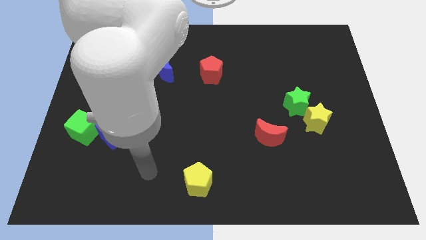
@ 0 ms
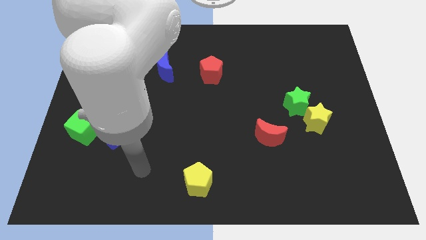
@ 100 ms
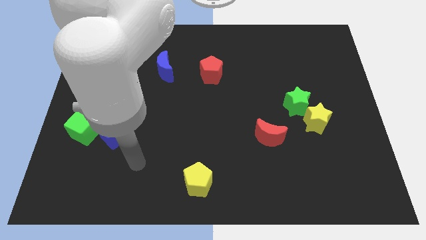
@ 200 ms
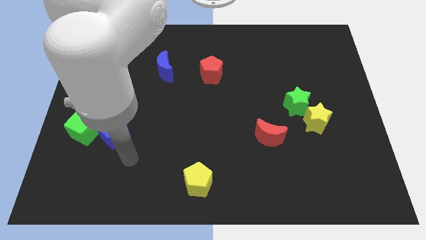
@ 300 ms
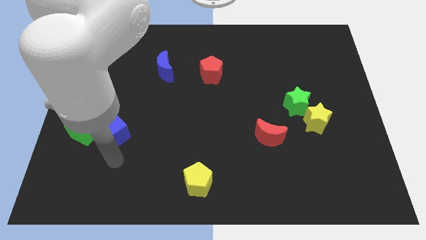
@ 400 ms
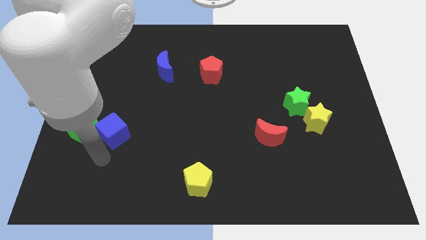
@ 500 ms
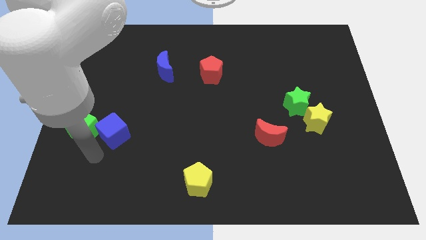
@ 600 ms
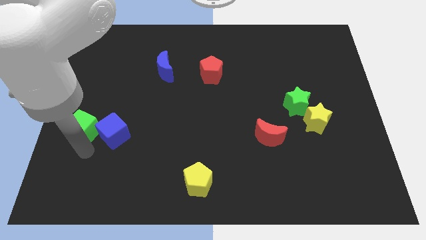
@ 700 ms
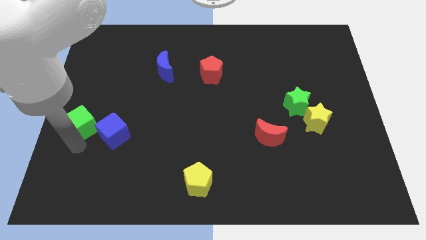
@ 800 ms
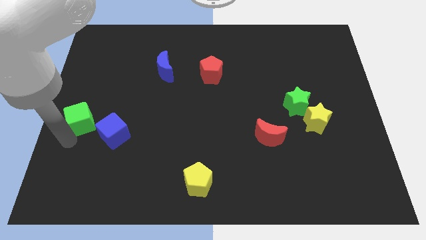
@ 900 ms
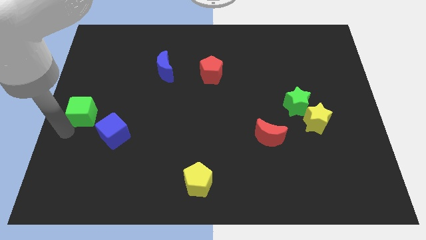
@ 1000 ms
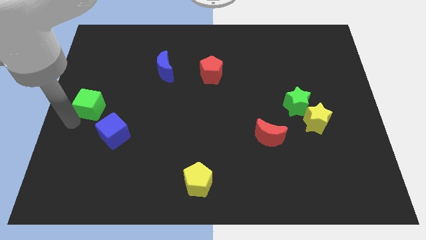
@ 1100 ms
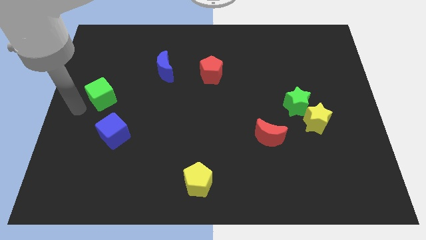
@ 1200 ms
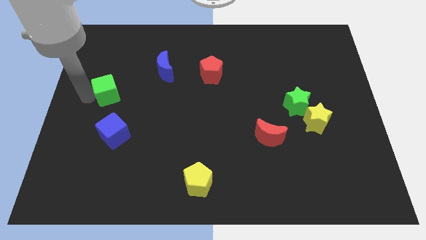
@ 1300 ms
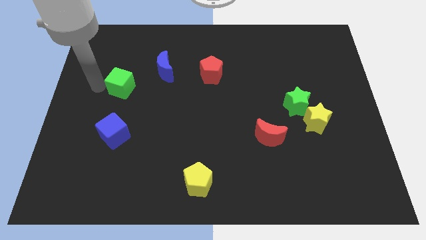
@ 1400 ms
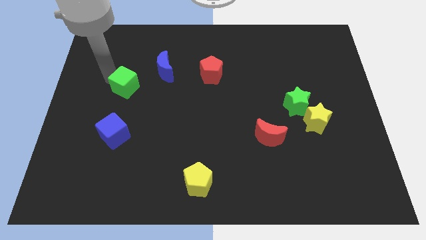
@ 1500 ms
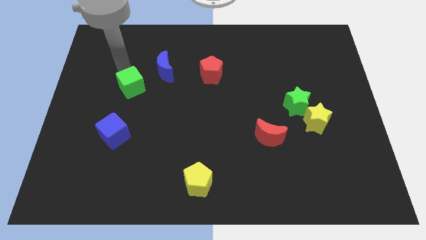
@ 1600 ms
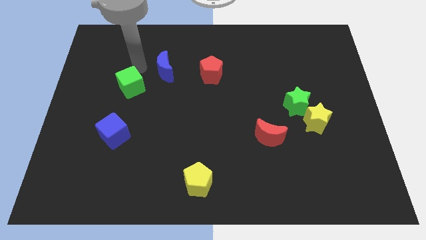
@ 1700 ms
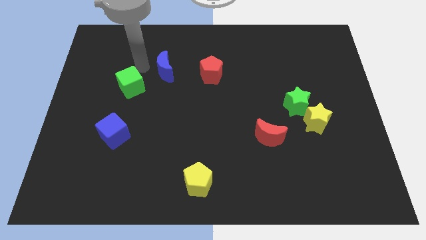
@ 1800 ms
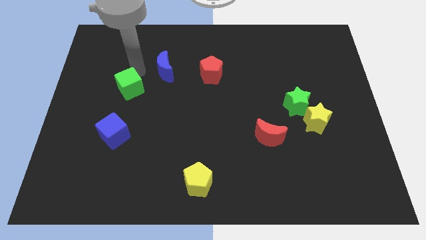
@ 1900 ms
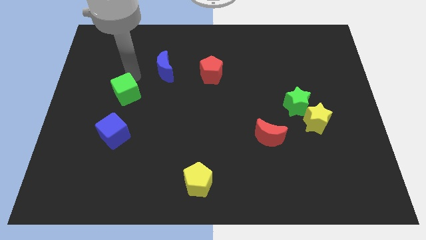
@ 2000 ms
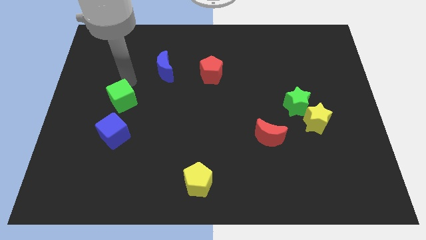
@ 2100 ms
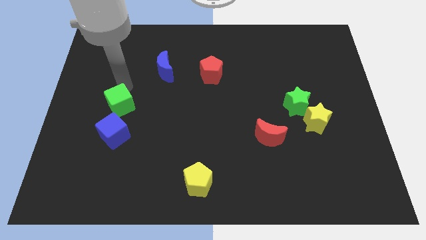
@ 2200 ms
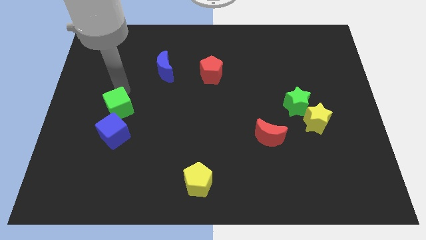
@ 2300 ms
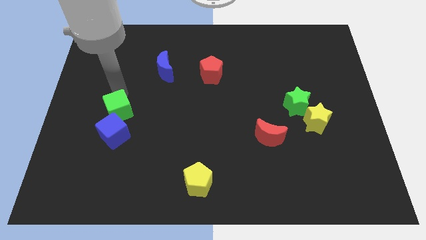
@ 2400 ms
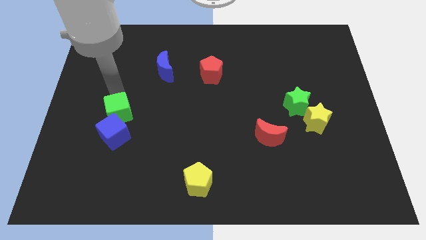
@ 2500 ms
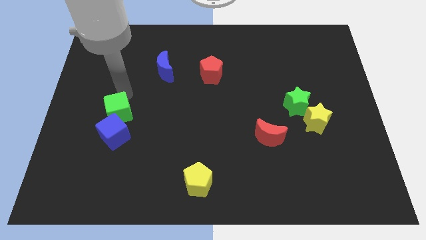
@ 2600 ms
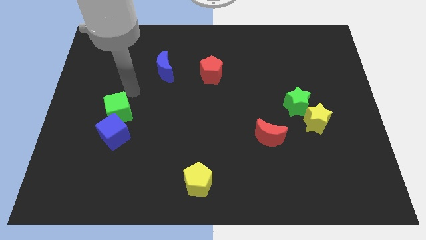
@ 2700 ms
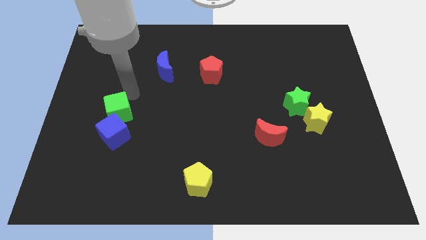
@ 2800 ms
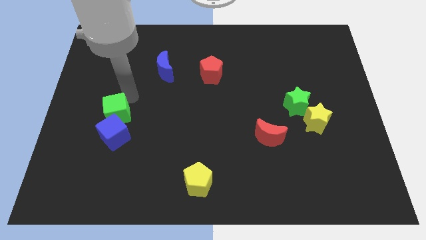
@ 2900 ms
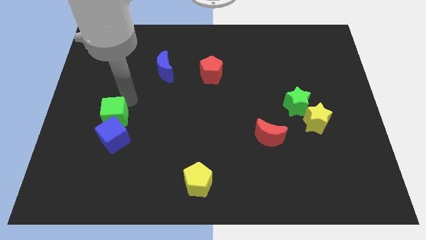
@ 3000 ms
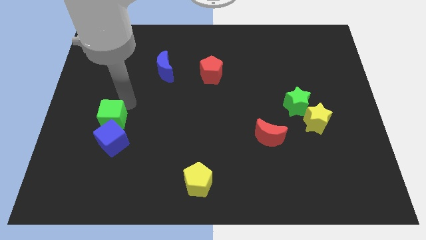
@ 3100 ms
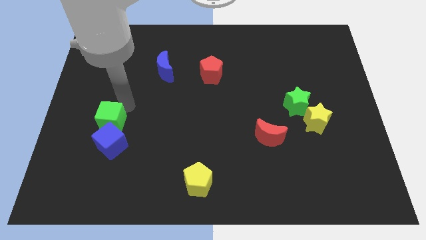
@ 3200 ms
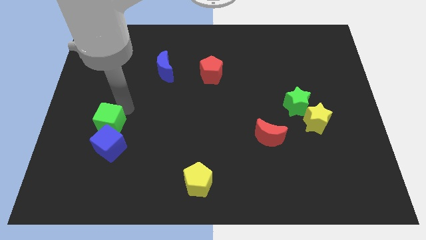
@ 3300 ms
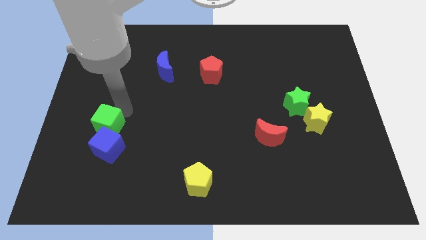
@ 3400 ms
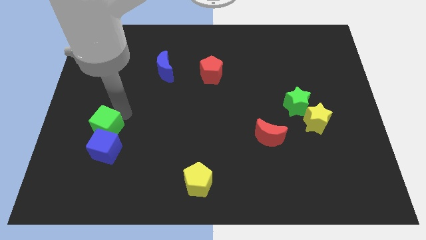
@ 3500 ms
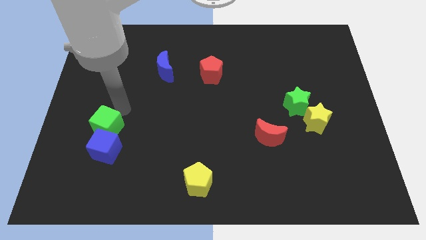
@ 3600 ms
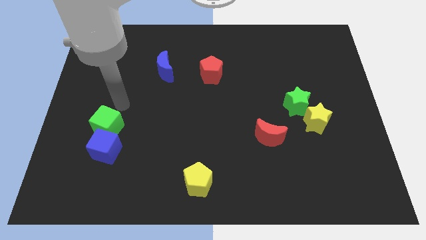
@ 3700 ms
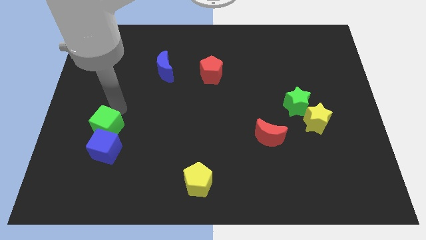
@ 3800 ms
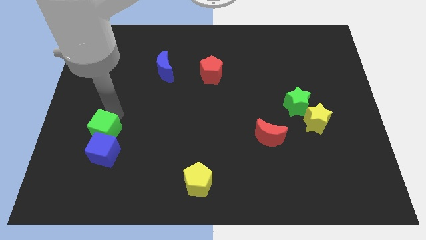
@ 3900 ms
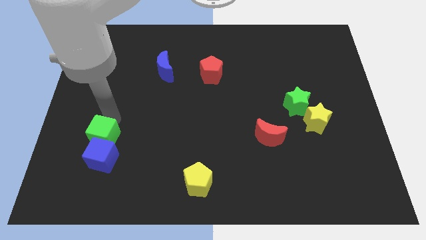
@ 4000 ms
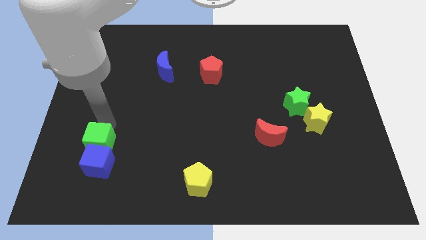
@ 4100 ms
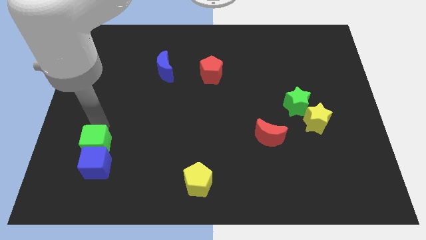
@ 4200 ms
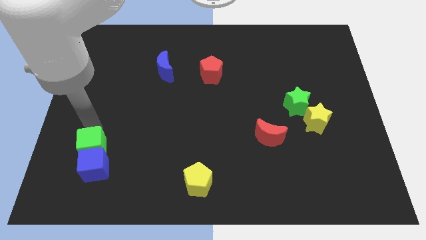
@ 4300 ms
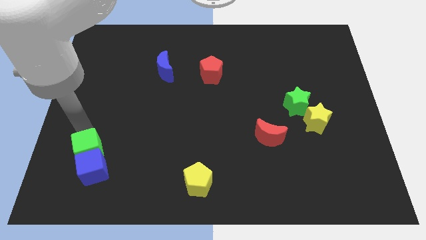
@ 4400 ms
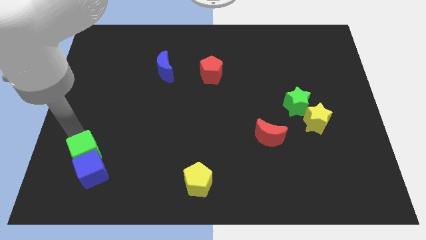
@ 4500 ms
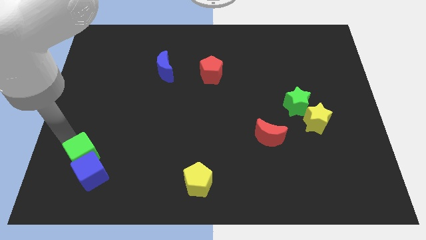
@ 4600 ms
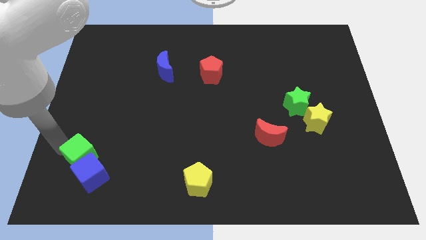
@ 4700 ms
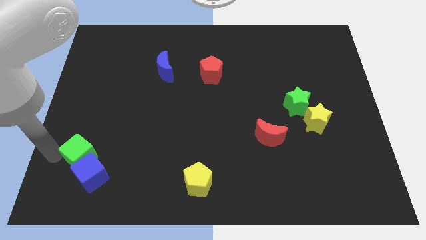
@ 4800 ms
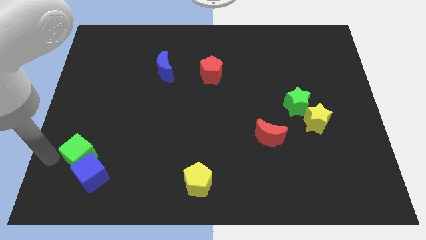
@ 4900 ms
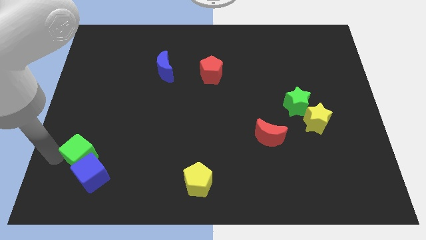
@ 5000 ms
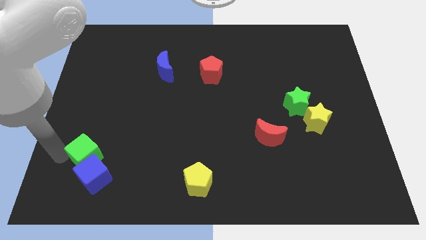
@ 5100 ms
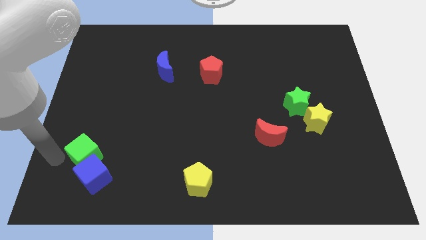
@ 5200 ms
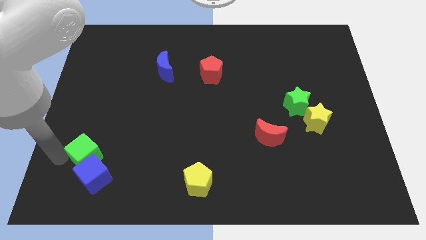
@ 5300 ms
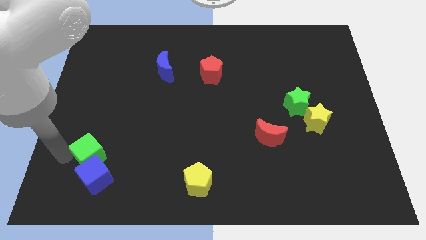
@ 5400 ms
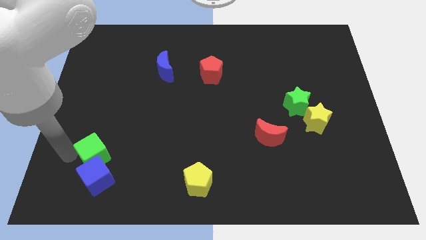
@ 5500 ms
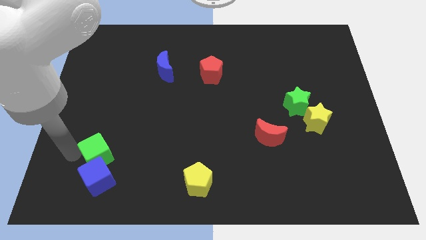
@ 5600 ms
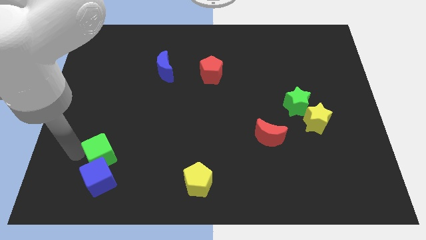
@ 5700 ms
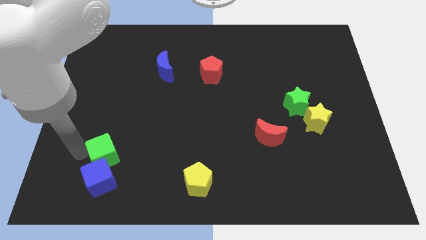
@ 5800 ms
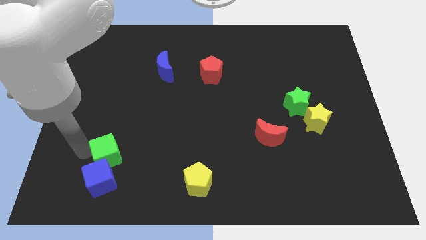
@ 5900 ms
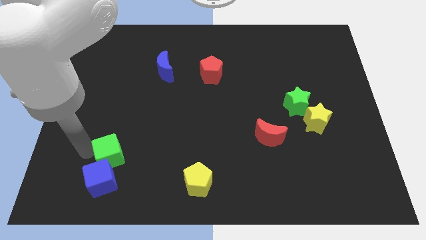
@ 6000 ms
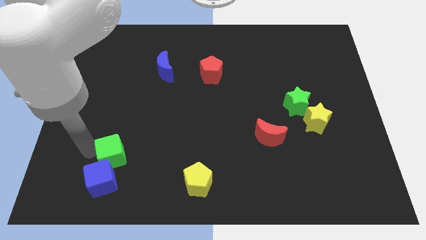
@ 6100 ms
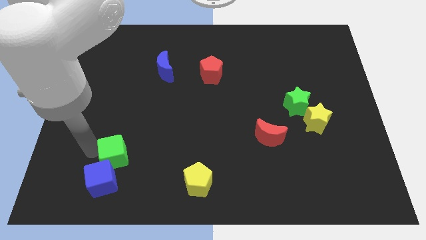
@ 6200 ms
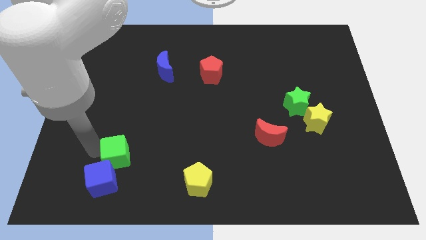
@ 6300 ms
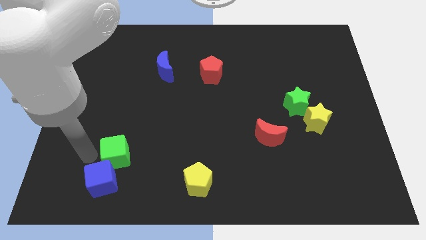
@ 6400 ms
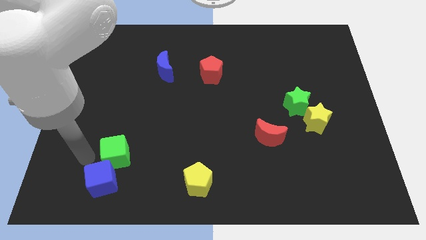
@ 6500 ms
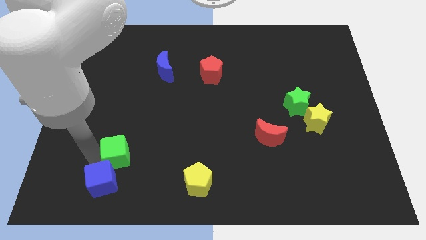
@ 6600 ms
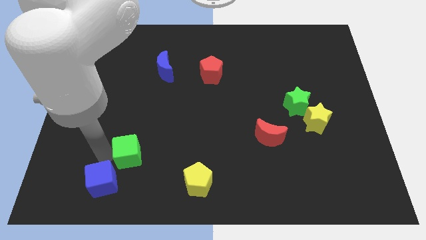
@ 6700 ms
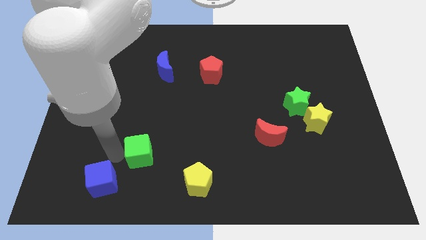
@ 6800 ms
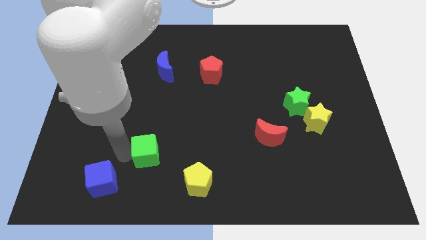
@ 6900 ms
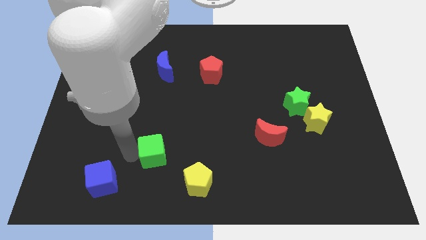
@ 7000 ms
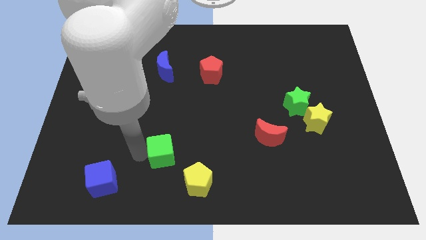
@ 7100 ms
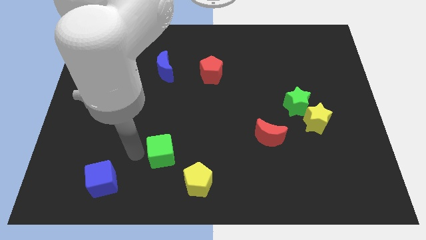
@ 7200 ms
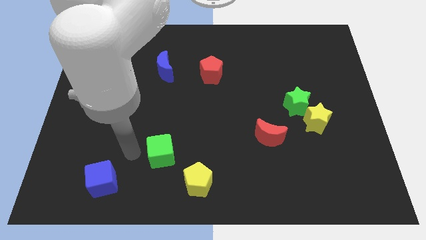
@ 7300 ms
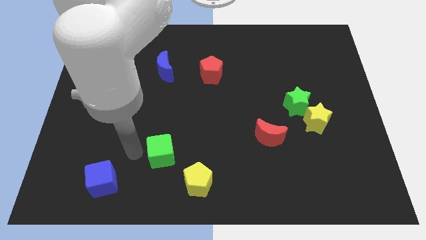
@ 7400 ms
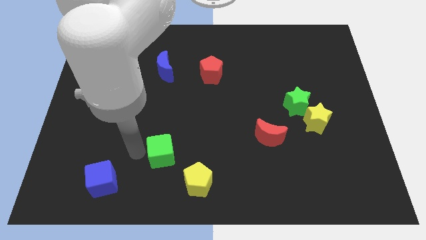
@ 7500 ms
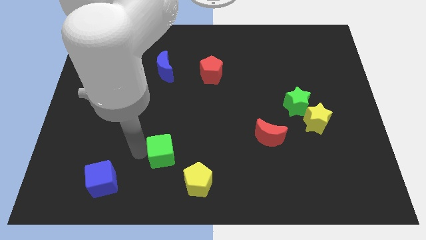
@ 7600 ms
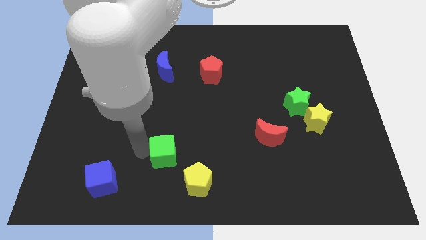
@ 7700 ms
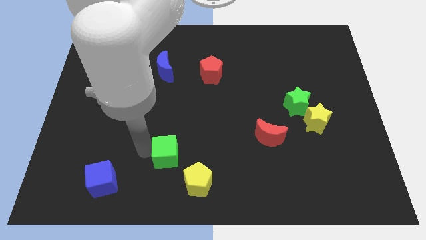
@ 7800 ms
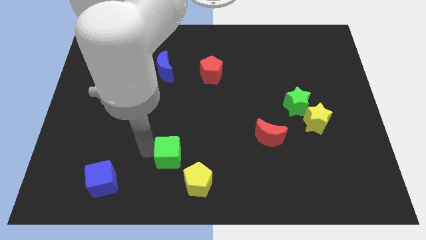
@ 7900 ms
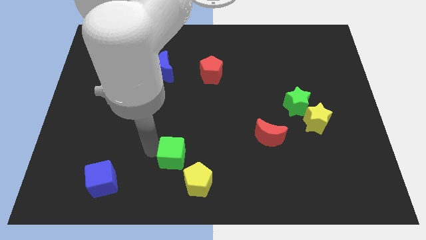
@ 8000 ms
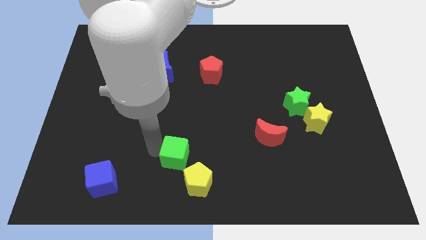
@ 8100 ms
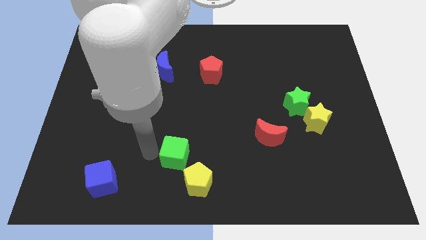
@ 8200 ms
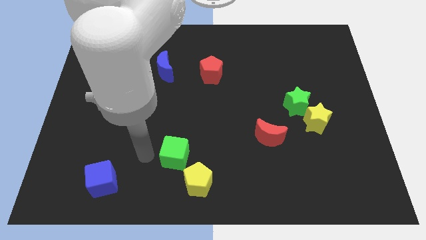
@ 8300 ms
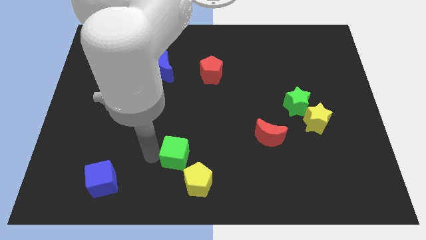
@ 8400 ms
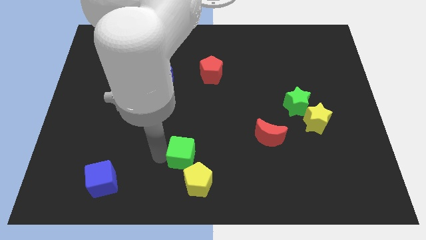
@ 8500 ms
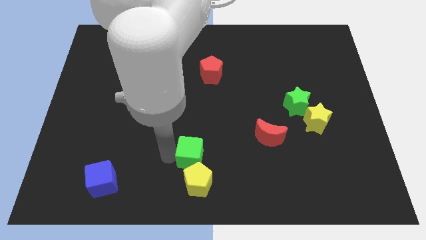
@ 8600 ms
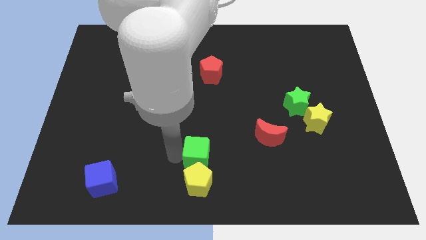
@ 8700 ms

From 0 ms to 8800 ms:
slide the green cube diagonally up and to the right of the yellow pentagon
